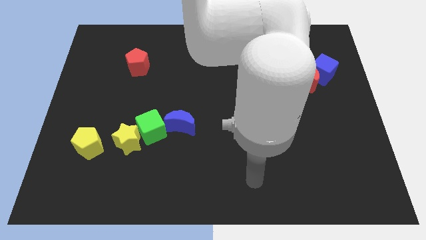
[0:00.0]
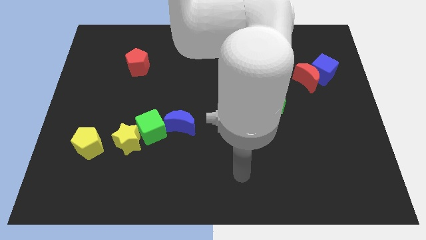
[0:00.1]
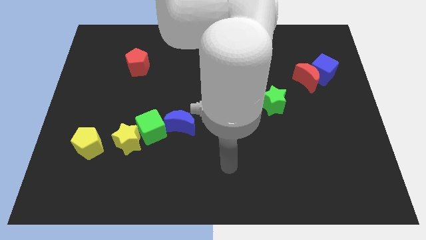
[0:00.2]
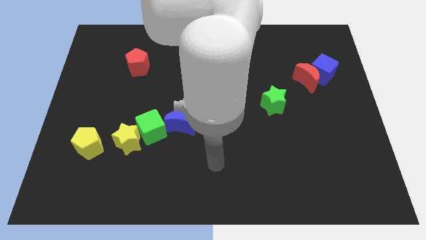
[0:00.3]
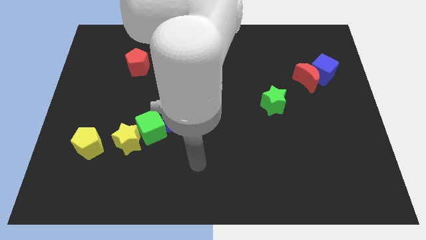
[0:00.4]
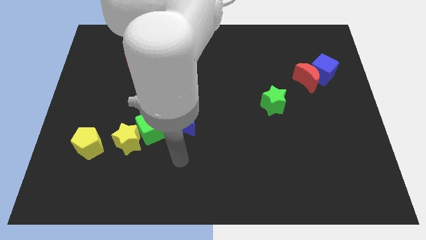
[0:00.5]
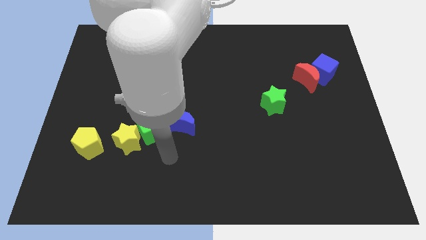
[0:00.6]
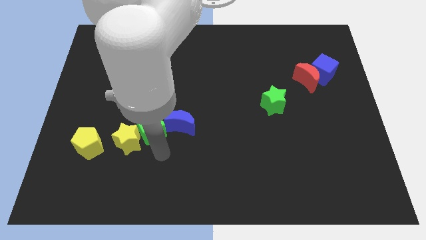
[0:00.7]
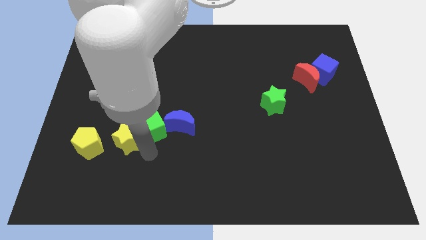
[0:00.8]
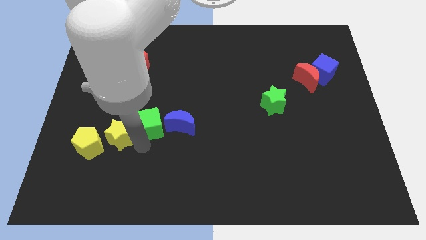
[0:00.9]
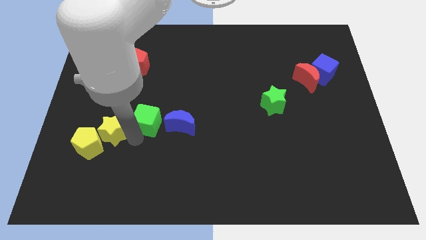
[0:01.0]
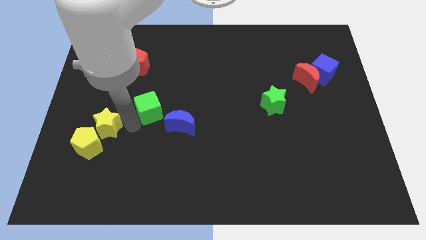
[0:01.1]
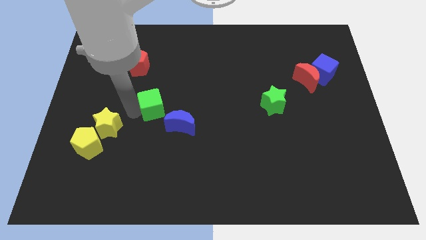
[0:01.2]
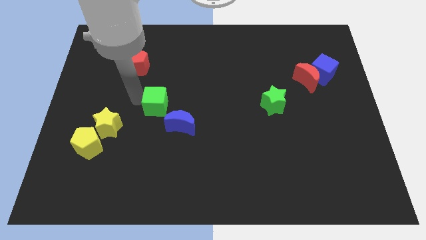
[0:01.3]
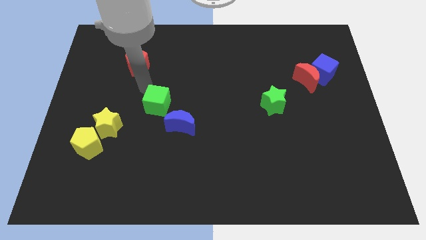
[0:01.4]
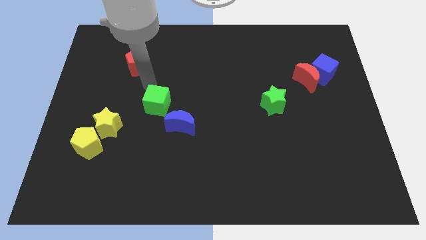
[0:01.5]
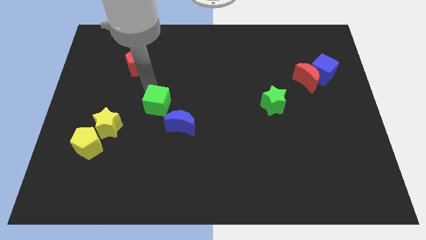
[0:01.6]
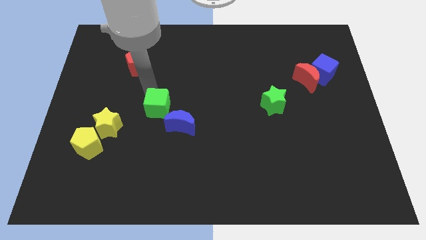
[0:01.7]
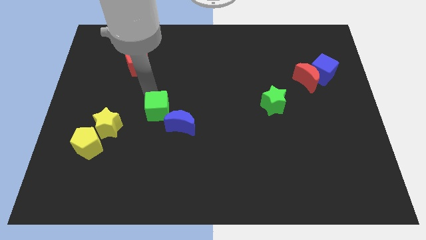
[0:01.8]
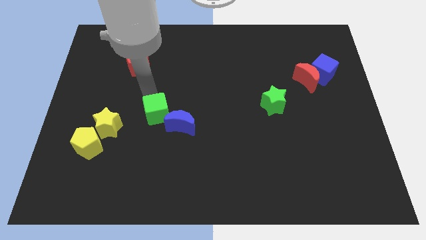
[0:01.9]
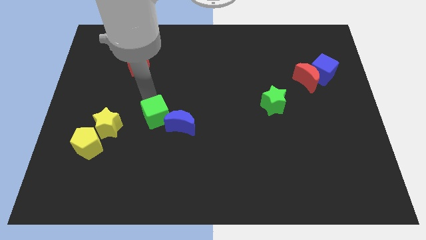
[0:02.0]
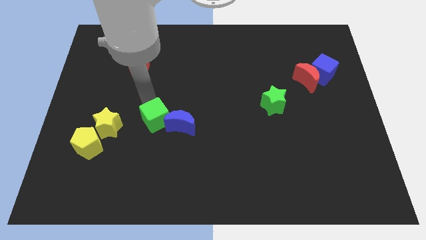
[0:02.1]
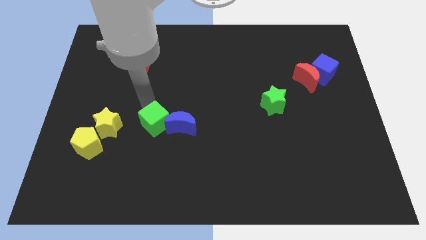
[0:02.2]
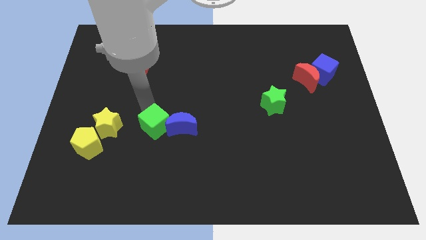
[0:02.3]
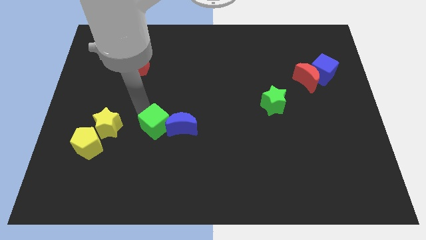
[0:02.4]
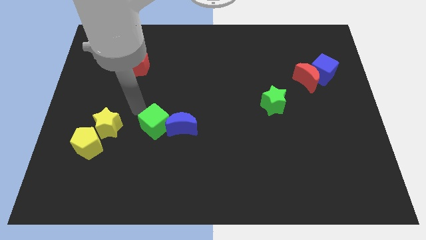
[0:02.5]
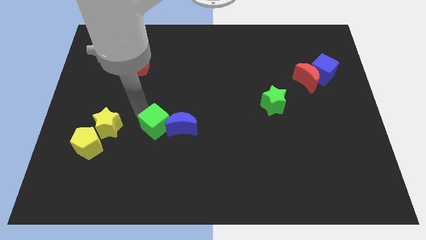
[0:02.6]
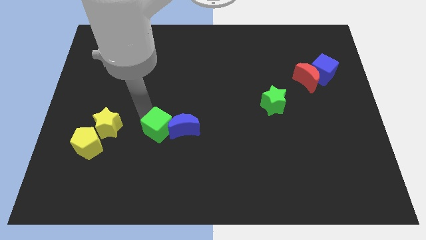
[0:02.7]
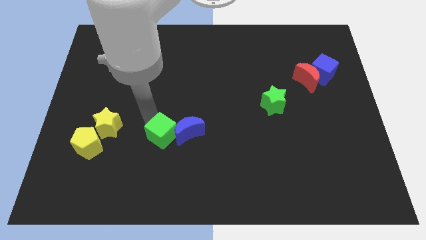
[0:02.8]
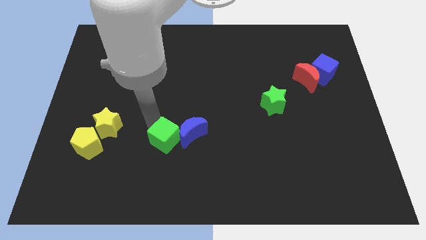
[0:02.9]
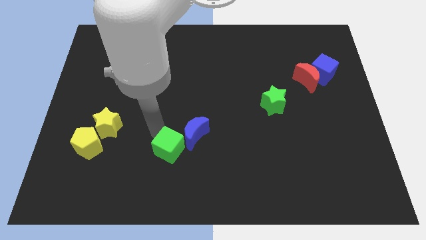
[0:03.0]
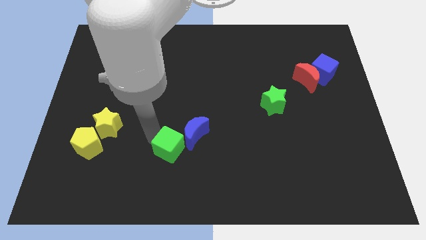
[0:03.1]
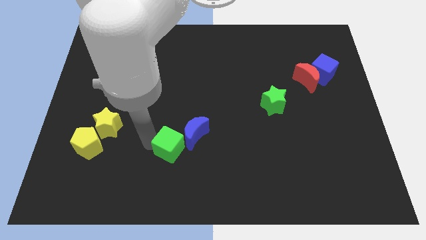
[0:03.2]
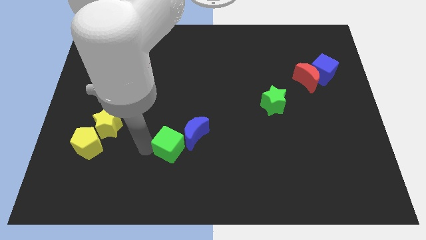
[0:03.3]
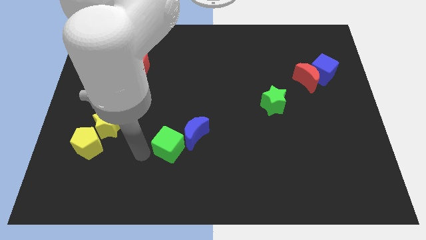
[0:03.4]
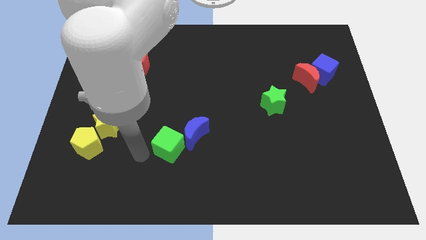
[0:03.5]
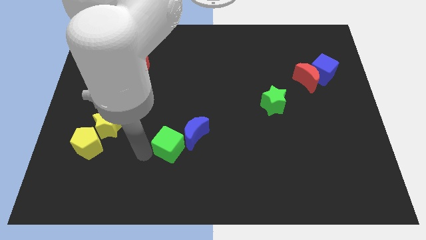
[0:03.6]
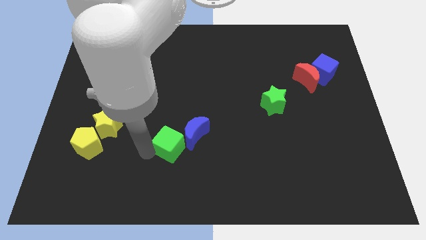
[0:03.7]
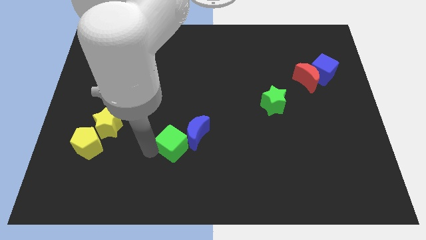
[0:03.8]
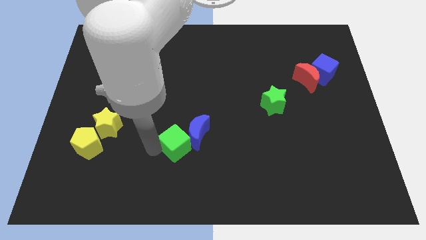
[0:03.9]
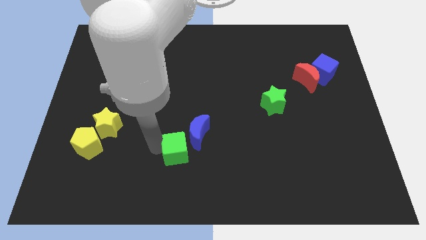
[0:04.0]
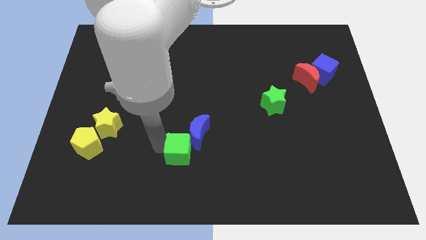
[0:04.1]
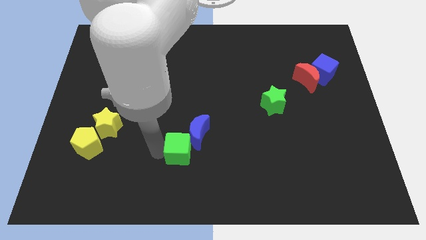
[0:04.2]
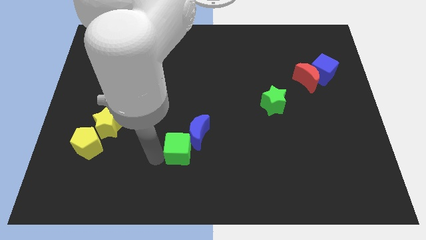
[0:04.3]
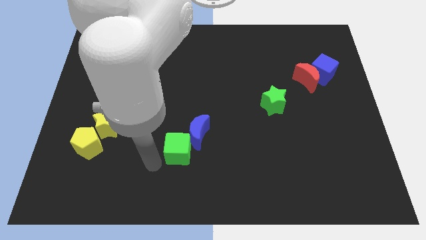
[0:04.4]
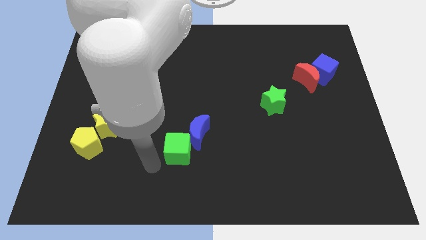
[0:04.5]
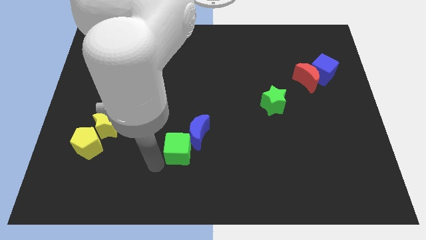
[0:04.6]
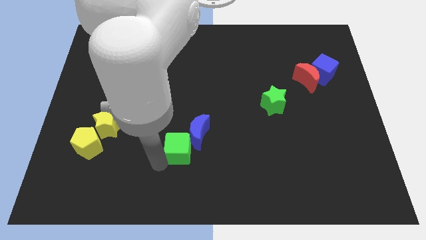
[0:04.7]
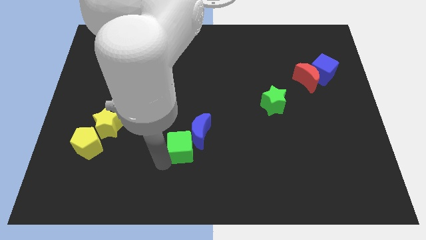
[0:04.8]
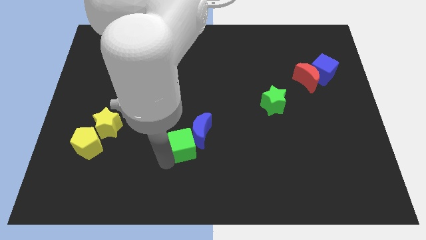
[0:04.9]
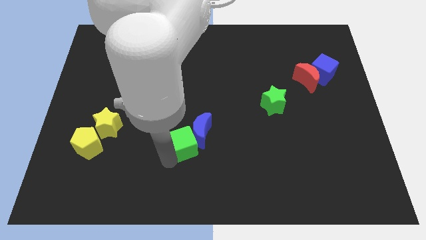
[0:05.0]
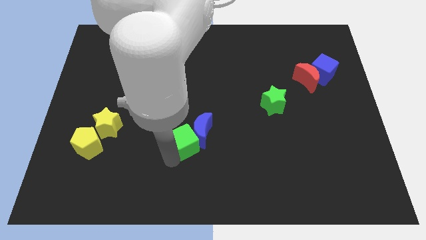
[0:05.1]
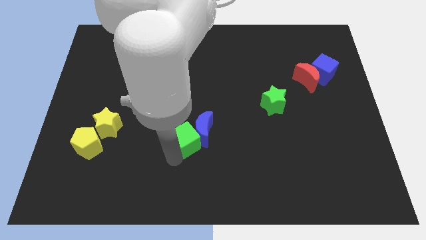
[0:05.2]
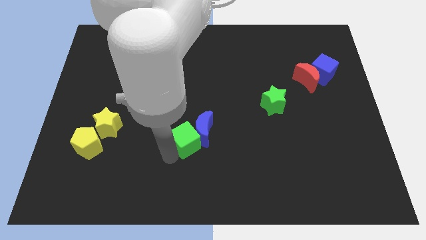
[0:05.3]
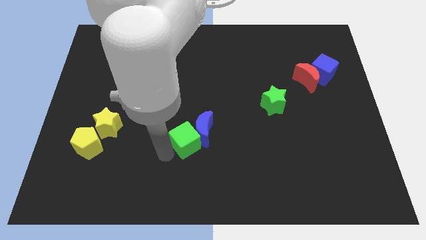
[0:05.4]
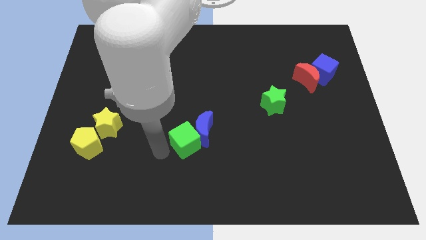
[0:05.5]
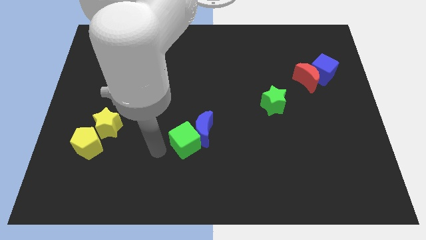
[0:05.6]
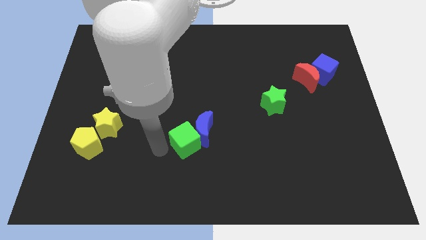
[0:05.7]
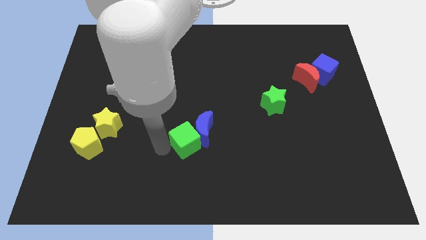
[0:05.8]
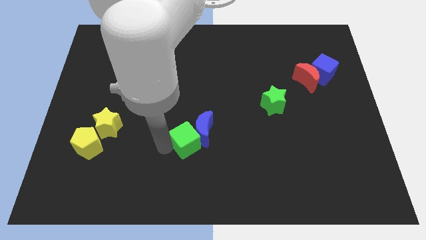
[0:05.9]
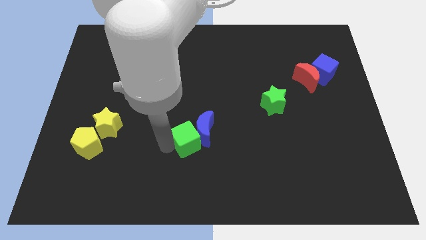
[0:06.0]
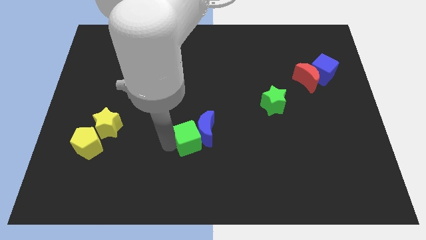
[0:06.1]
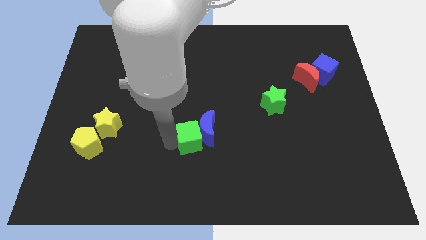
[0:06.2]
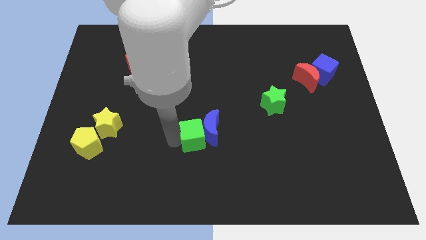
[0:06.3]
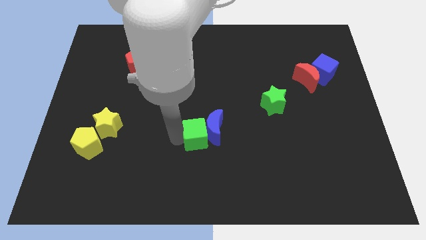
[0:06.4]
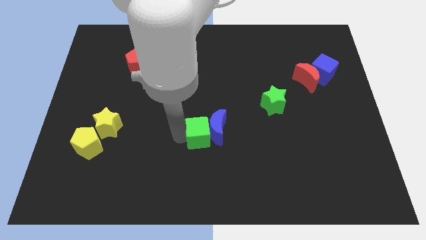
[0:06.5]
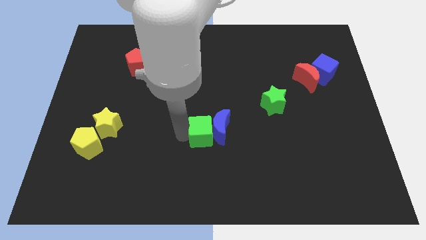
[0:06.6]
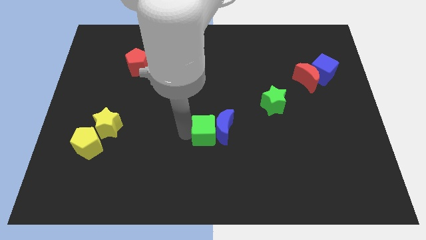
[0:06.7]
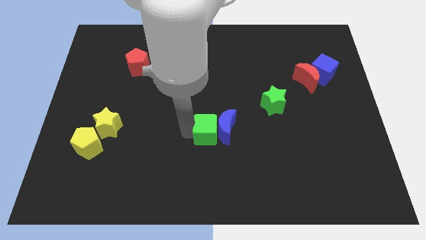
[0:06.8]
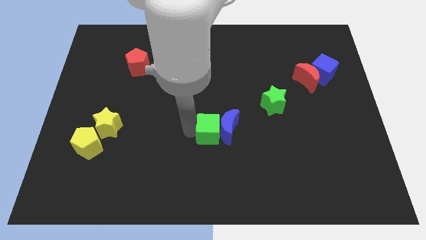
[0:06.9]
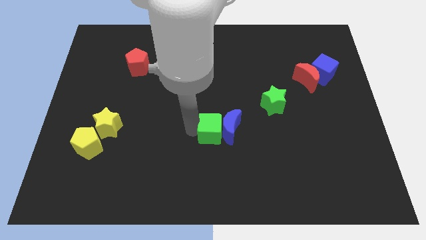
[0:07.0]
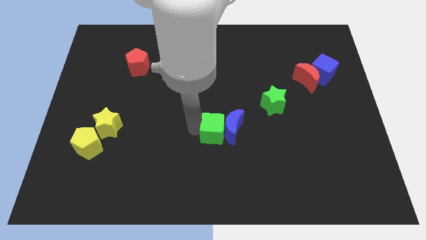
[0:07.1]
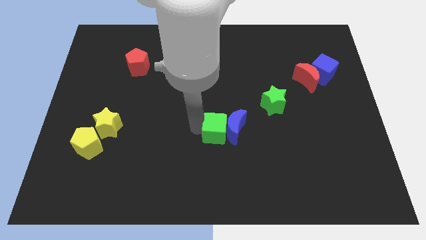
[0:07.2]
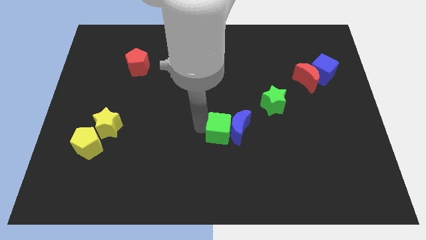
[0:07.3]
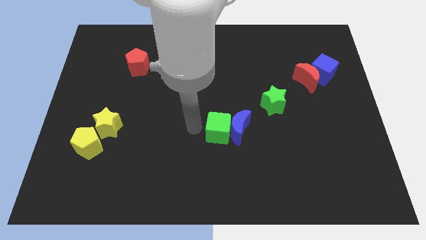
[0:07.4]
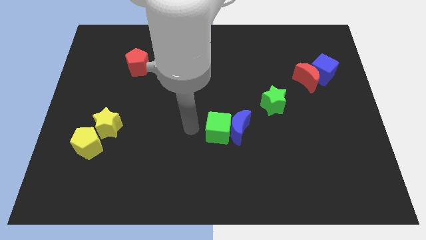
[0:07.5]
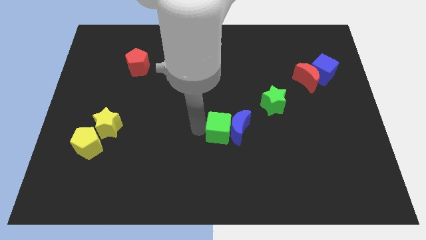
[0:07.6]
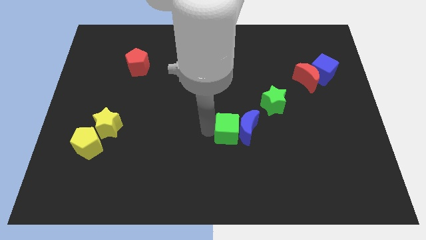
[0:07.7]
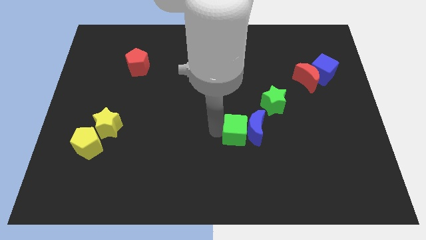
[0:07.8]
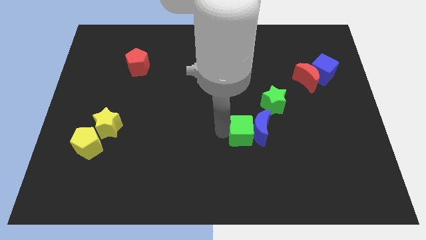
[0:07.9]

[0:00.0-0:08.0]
push the green cube to the right

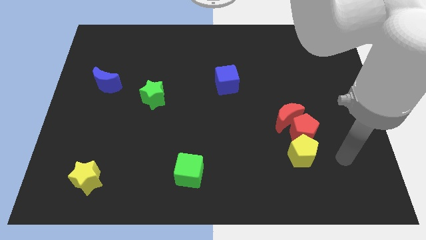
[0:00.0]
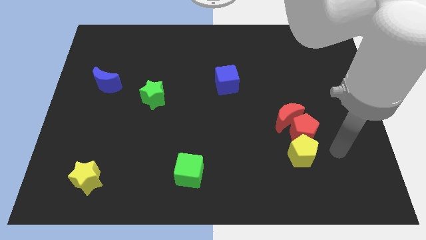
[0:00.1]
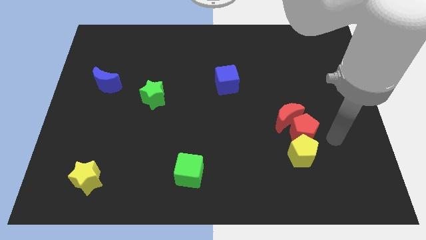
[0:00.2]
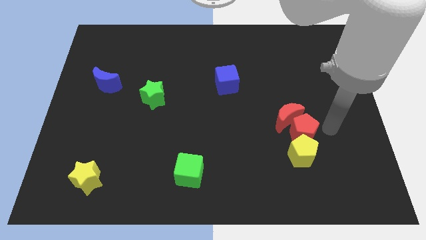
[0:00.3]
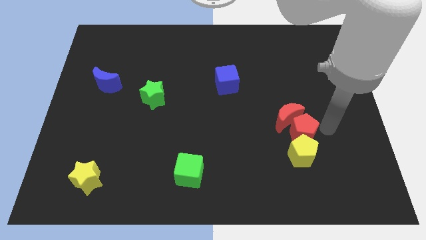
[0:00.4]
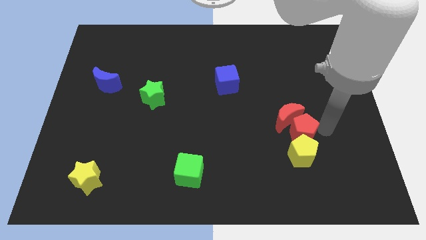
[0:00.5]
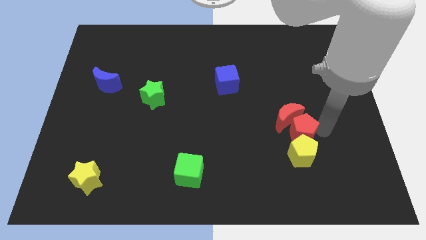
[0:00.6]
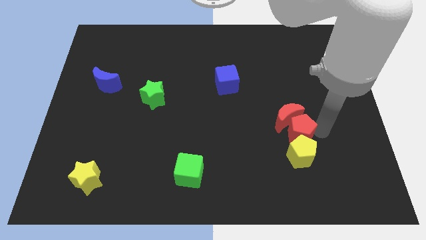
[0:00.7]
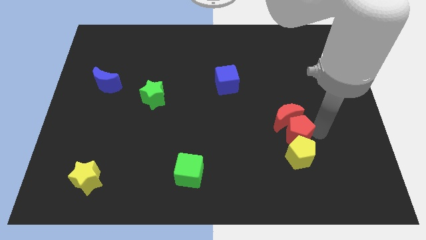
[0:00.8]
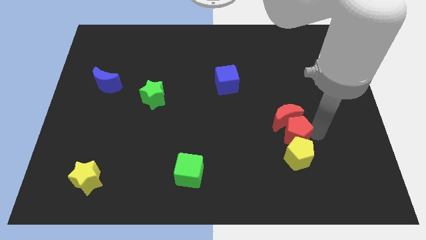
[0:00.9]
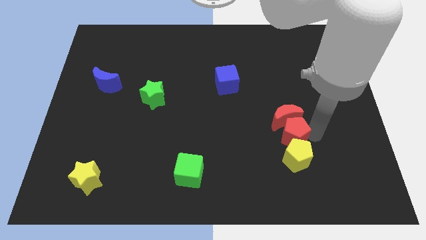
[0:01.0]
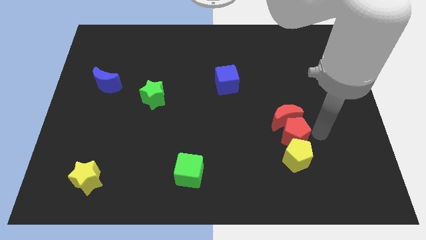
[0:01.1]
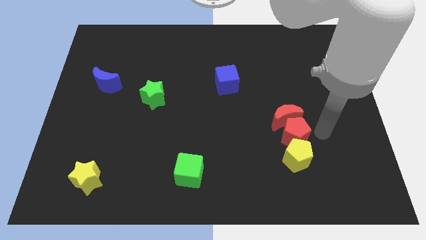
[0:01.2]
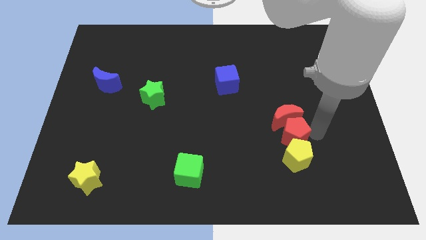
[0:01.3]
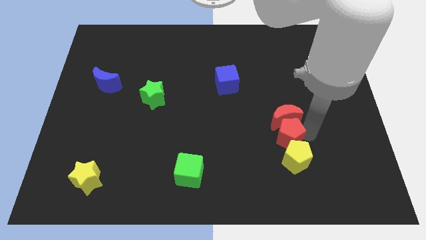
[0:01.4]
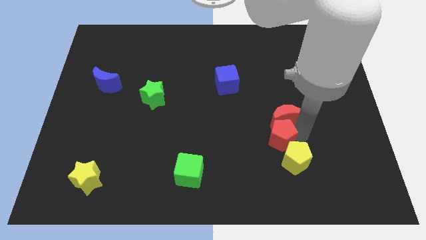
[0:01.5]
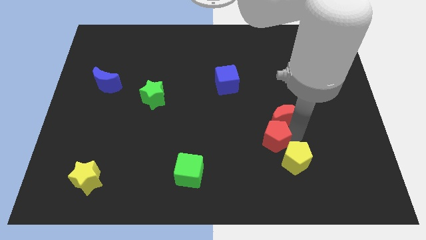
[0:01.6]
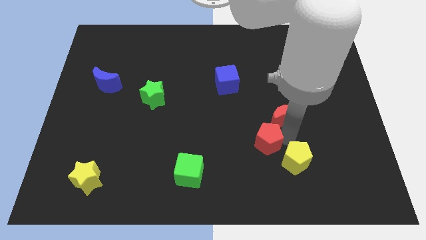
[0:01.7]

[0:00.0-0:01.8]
slightly push the red pentagon left
